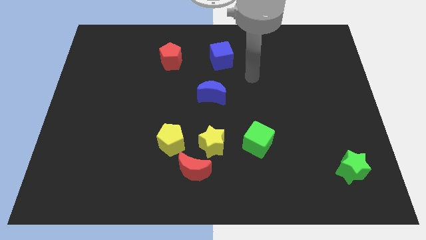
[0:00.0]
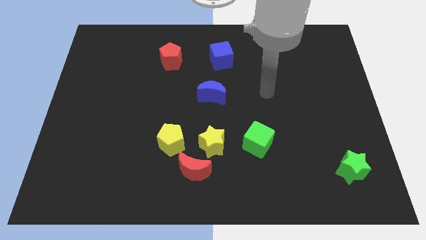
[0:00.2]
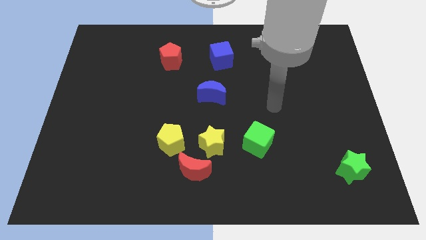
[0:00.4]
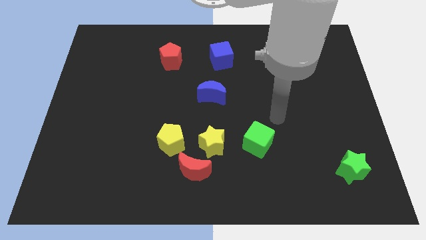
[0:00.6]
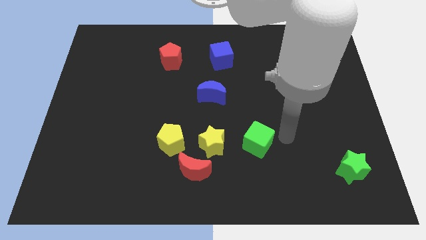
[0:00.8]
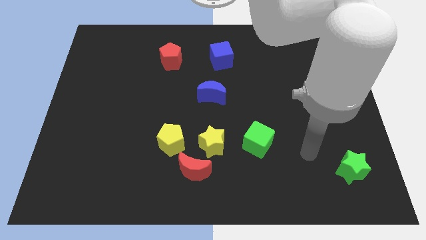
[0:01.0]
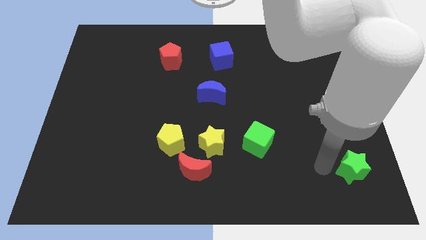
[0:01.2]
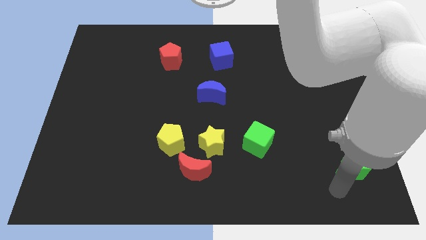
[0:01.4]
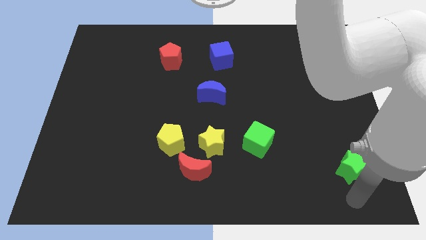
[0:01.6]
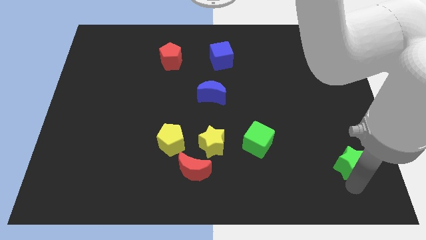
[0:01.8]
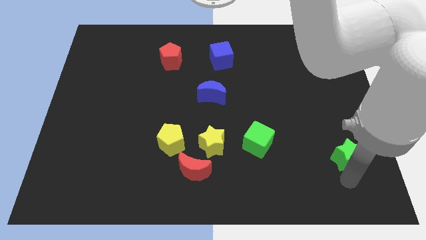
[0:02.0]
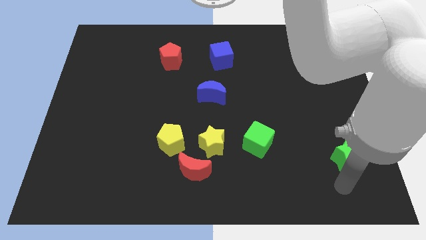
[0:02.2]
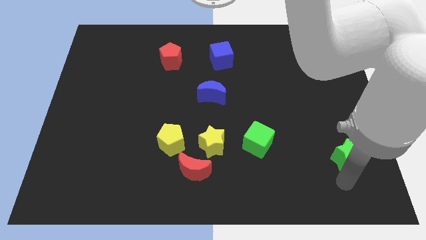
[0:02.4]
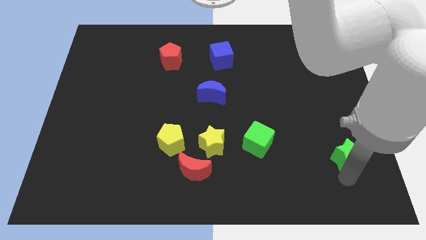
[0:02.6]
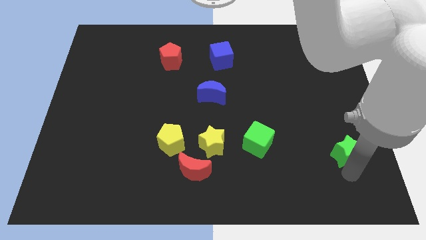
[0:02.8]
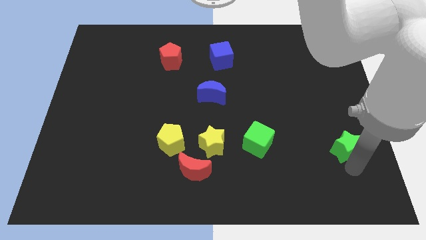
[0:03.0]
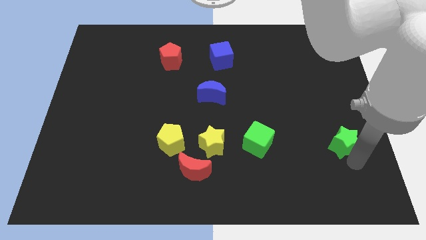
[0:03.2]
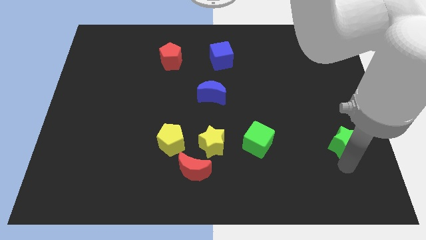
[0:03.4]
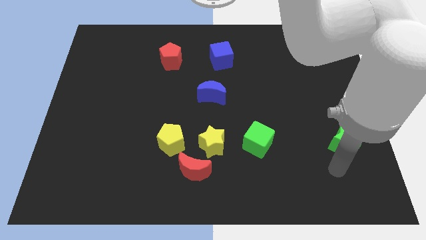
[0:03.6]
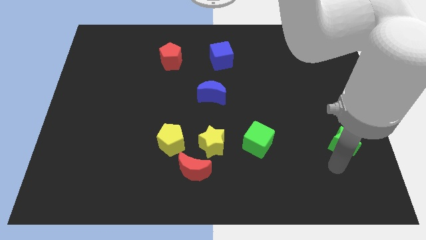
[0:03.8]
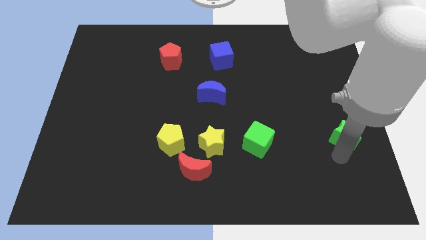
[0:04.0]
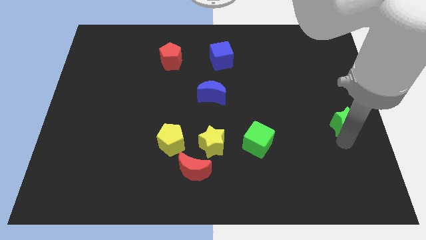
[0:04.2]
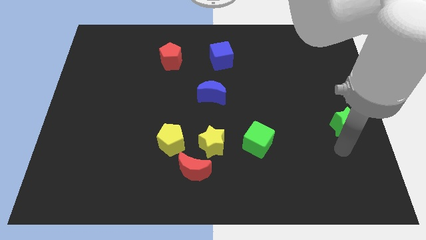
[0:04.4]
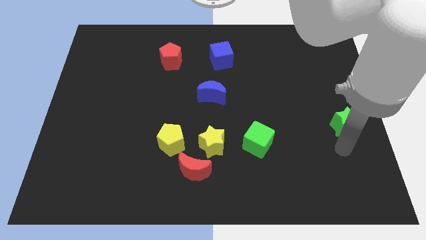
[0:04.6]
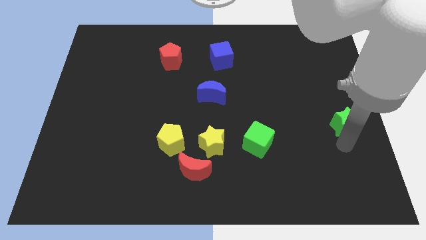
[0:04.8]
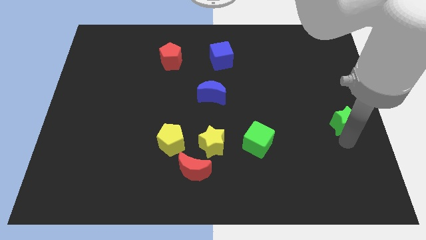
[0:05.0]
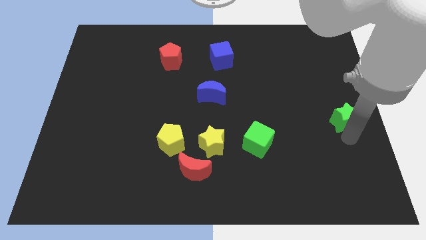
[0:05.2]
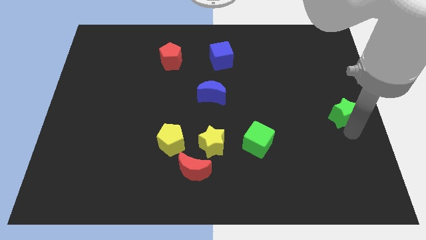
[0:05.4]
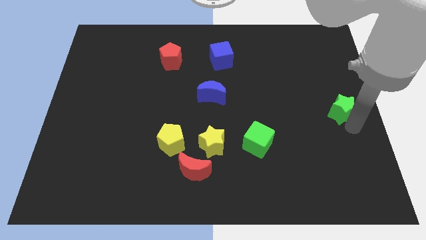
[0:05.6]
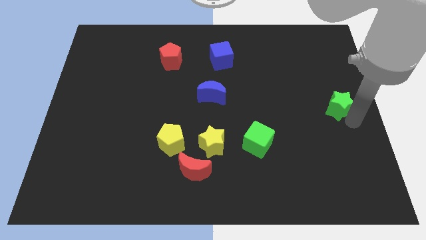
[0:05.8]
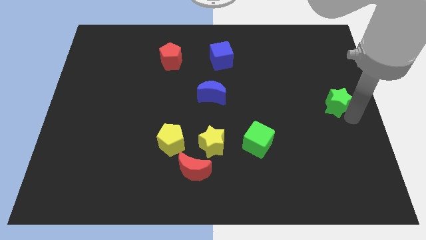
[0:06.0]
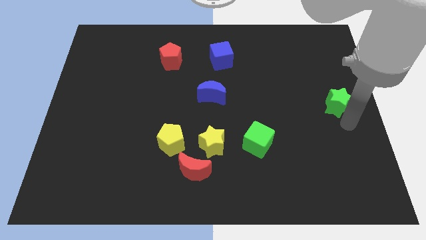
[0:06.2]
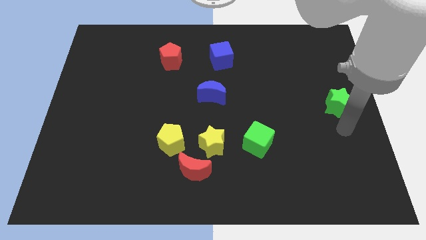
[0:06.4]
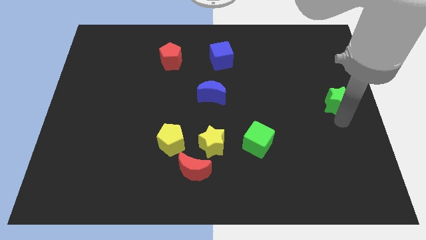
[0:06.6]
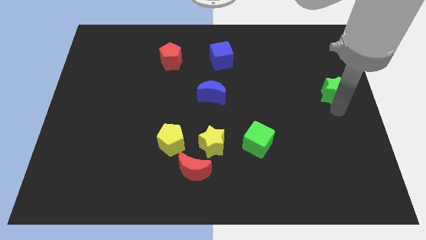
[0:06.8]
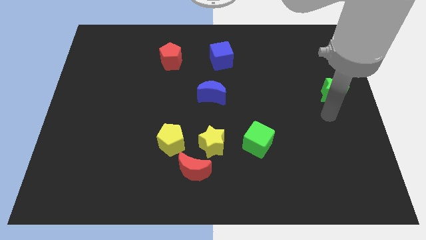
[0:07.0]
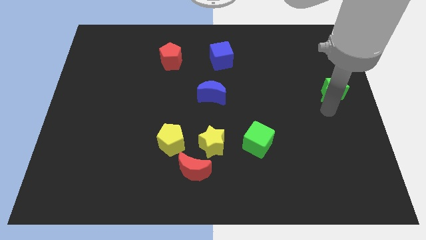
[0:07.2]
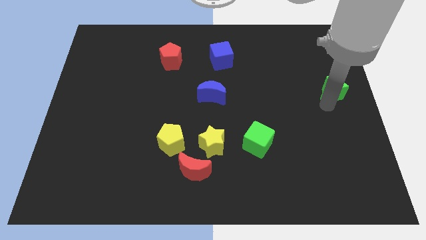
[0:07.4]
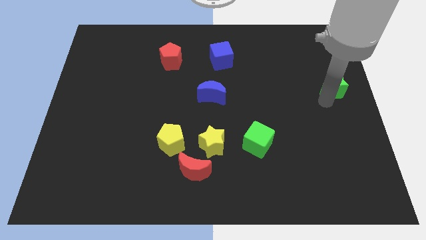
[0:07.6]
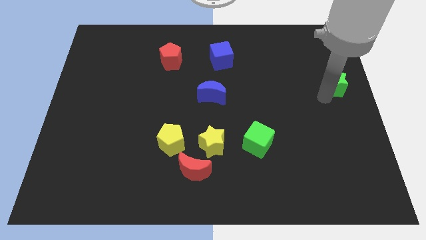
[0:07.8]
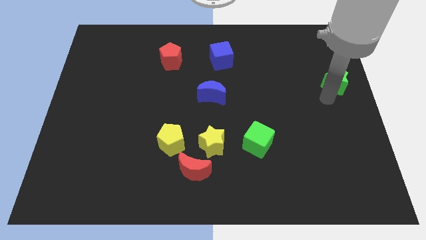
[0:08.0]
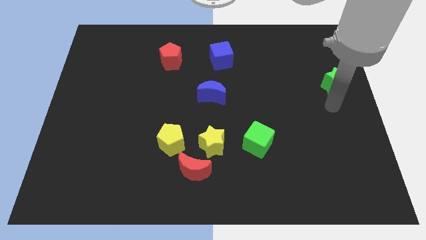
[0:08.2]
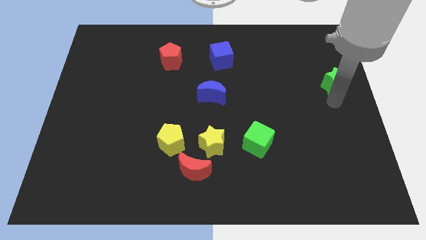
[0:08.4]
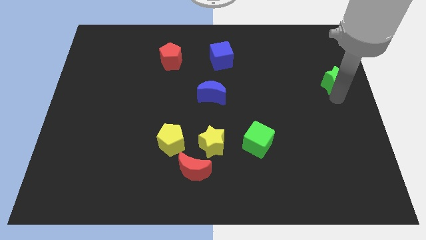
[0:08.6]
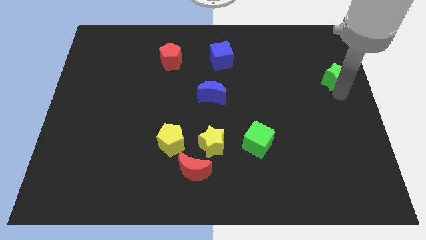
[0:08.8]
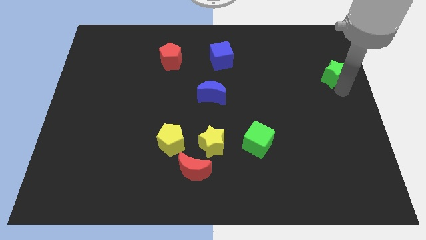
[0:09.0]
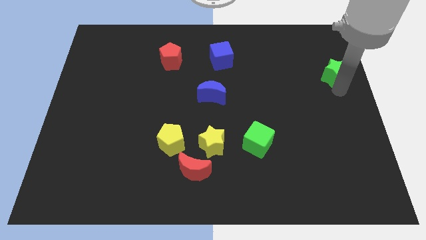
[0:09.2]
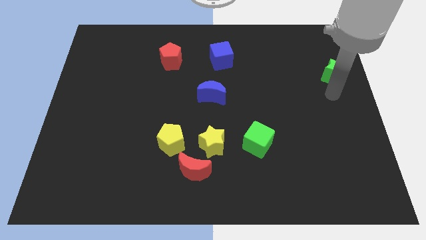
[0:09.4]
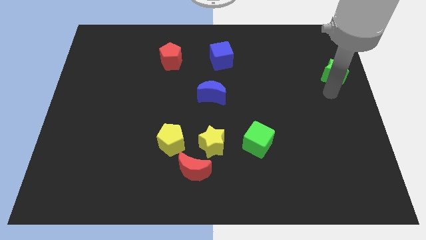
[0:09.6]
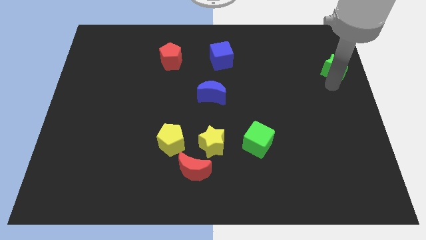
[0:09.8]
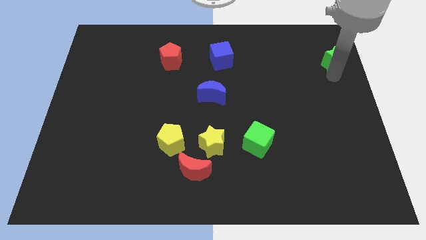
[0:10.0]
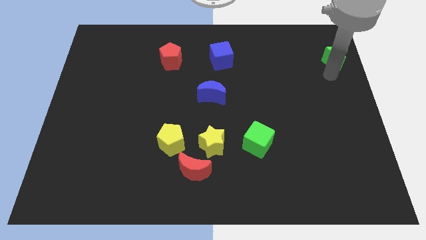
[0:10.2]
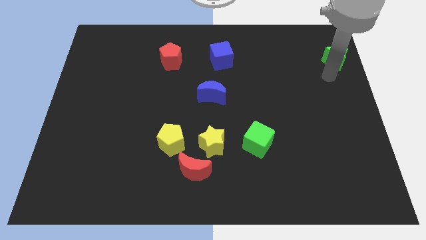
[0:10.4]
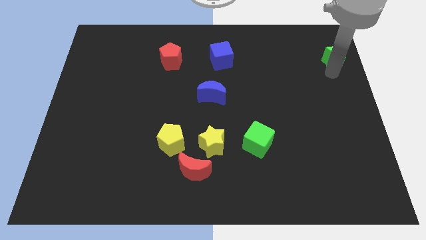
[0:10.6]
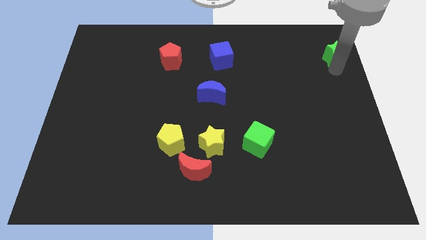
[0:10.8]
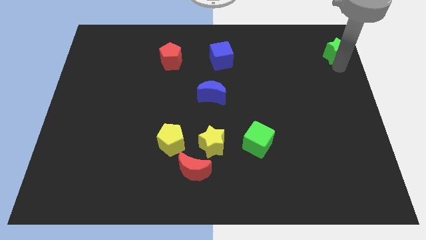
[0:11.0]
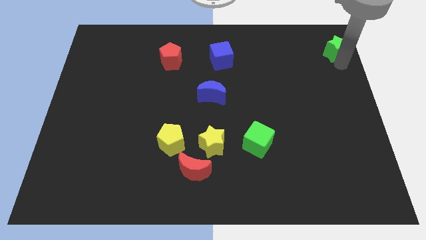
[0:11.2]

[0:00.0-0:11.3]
move the green star to the top right

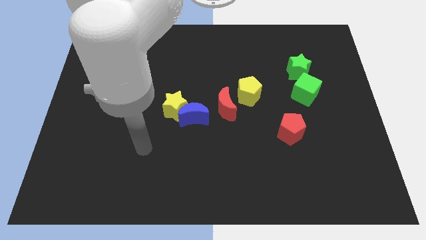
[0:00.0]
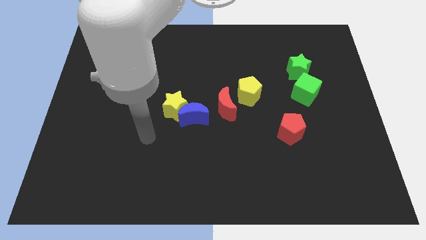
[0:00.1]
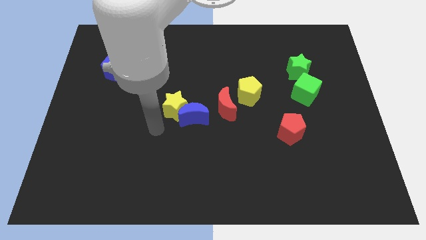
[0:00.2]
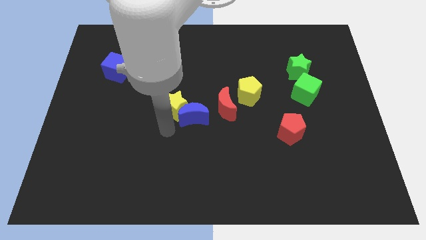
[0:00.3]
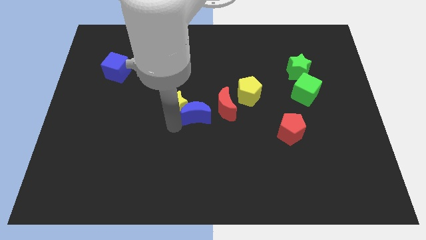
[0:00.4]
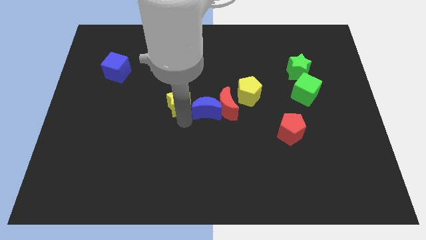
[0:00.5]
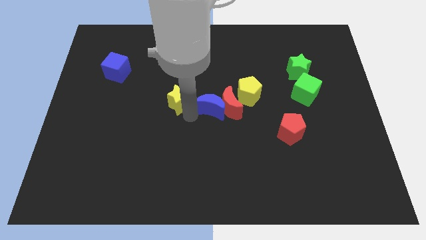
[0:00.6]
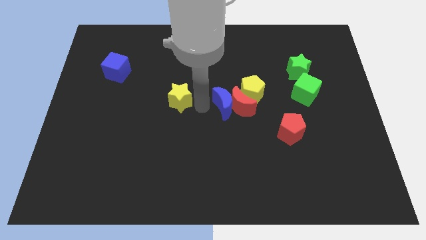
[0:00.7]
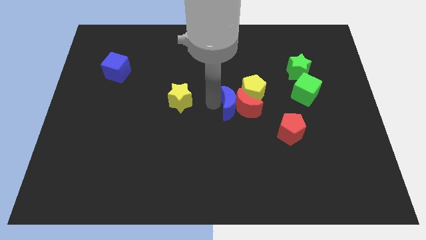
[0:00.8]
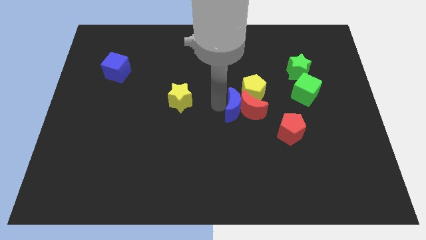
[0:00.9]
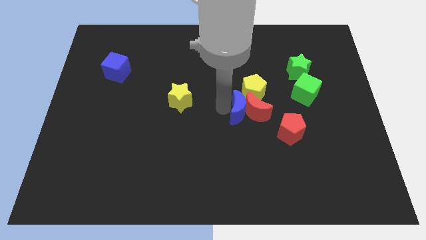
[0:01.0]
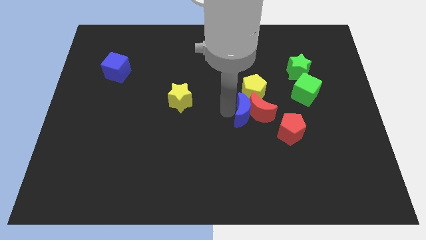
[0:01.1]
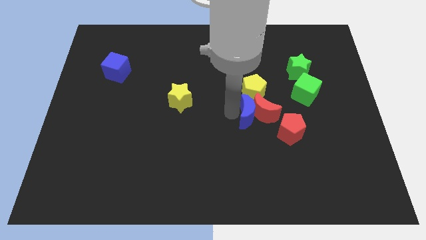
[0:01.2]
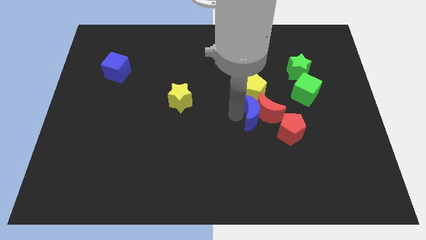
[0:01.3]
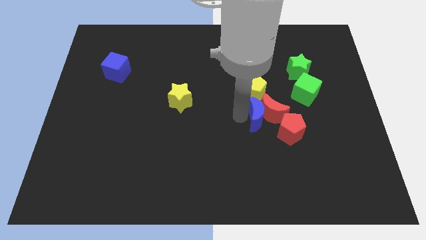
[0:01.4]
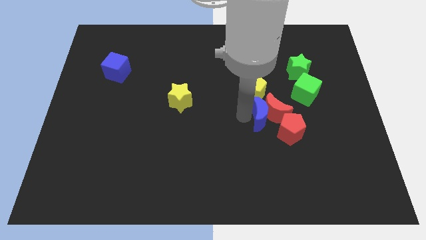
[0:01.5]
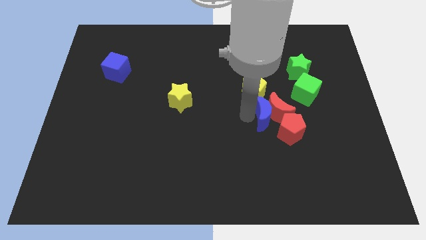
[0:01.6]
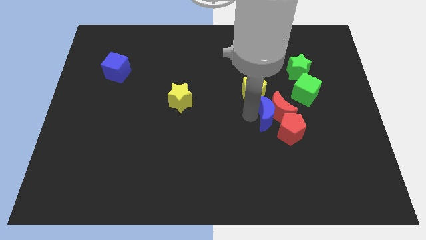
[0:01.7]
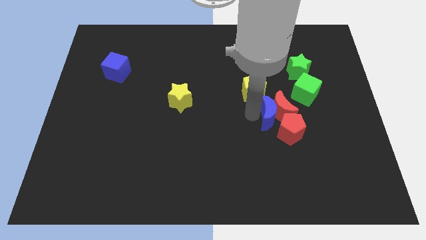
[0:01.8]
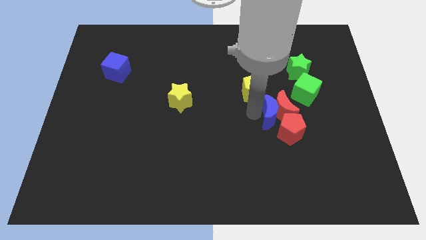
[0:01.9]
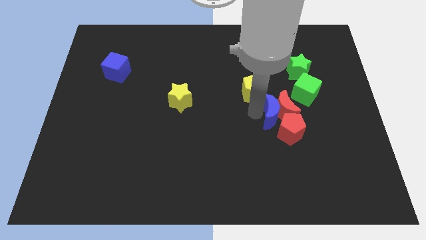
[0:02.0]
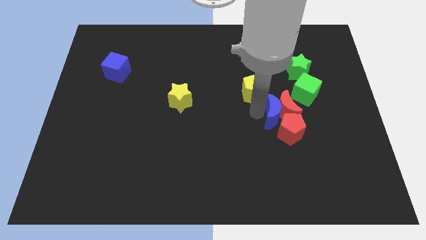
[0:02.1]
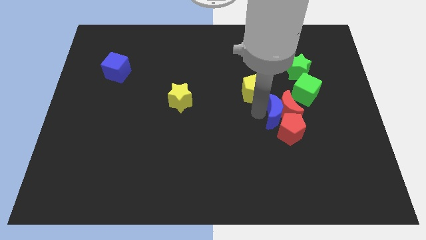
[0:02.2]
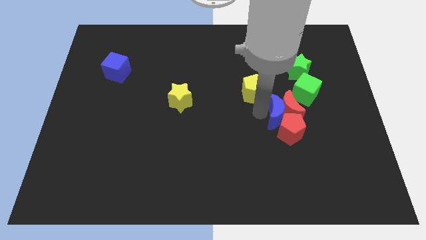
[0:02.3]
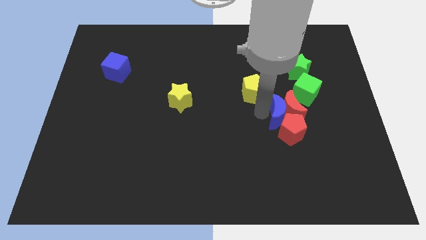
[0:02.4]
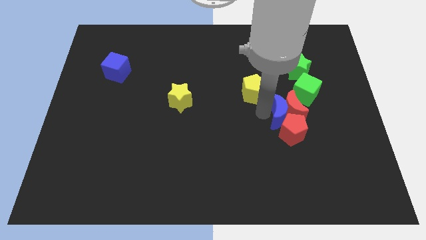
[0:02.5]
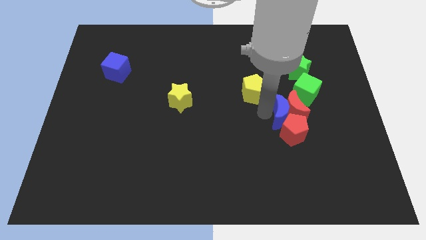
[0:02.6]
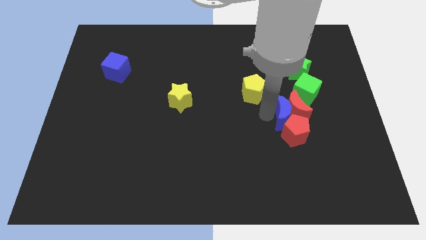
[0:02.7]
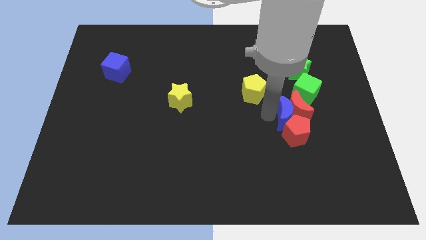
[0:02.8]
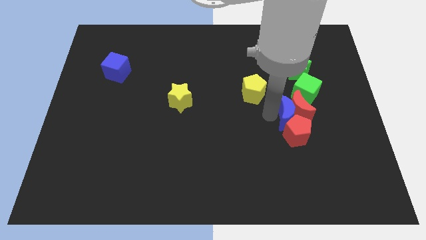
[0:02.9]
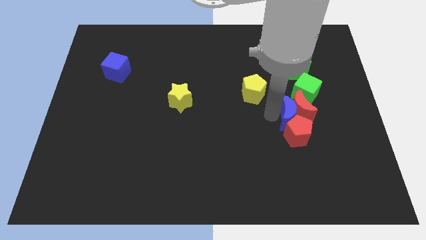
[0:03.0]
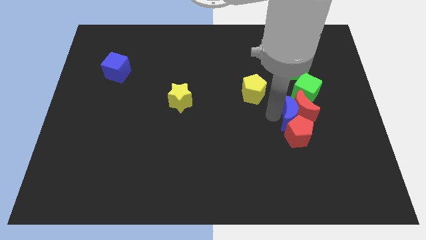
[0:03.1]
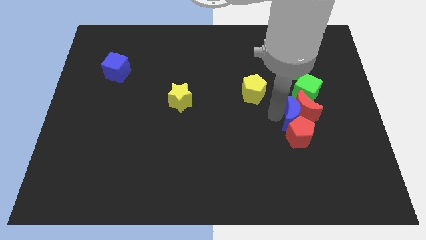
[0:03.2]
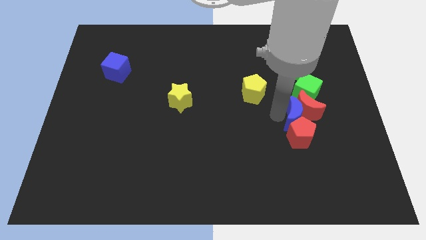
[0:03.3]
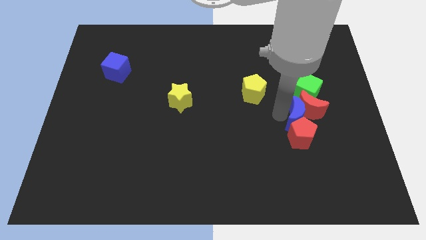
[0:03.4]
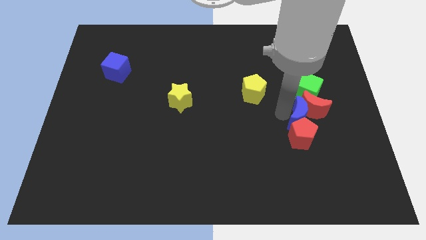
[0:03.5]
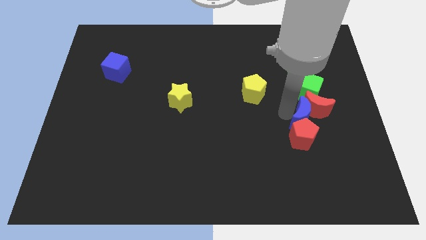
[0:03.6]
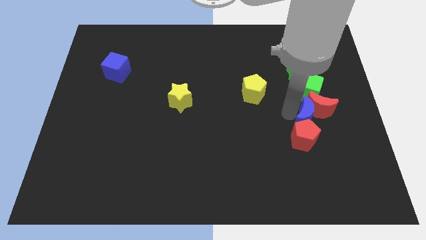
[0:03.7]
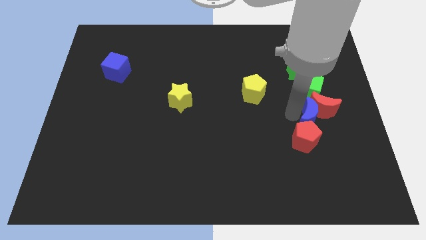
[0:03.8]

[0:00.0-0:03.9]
push the red moon to the right side of the board
